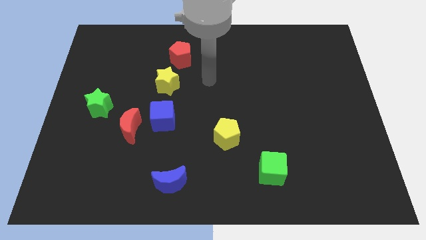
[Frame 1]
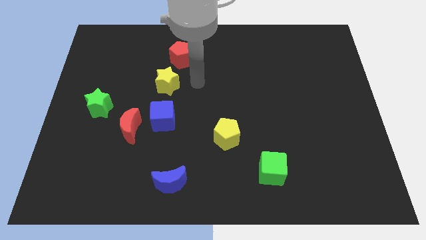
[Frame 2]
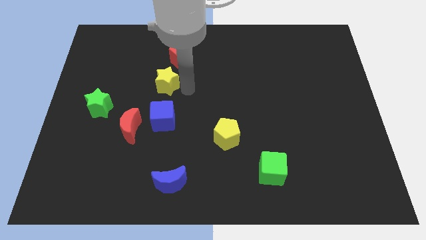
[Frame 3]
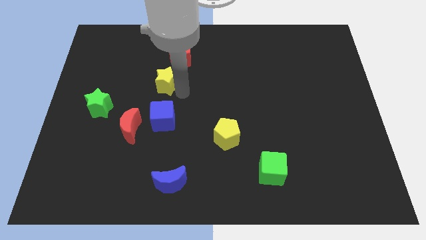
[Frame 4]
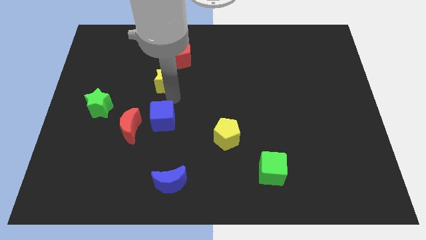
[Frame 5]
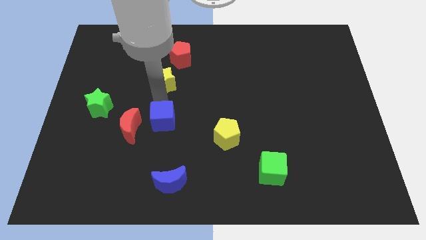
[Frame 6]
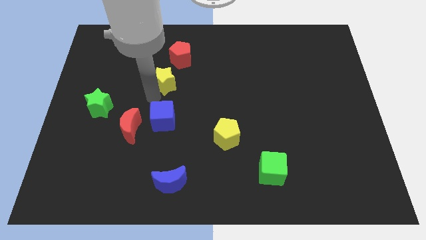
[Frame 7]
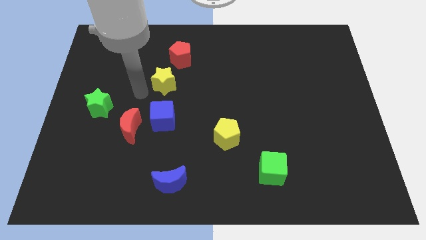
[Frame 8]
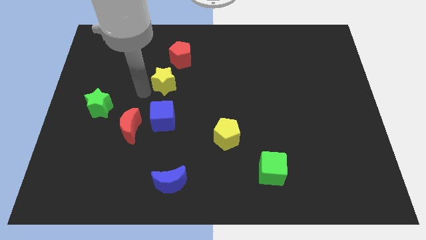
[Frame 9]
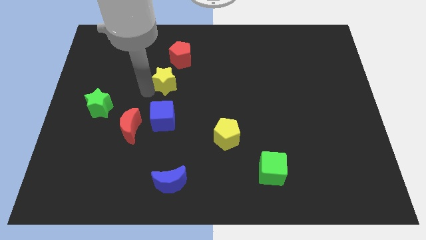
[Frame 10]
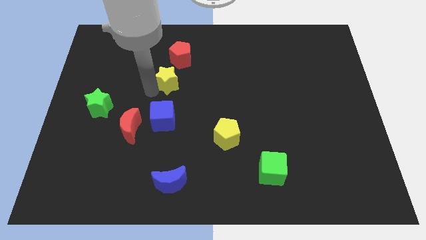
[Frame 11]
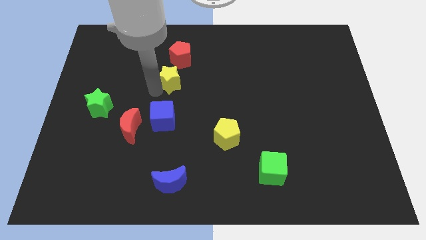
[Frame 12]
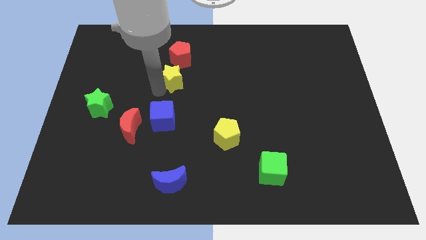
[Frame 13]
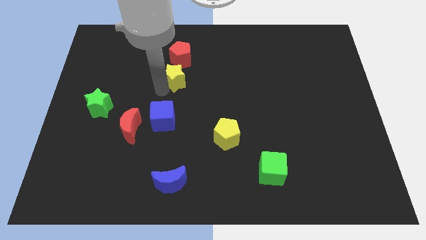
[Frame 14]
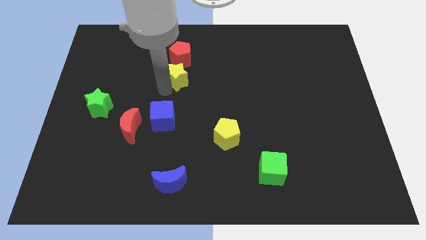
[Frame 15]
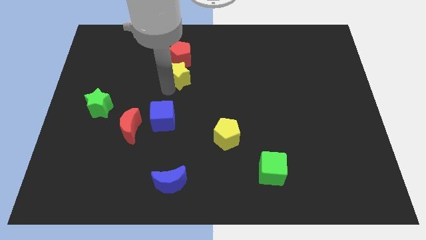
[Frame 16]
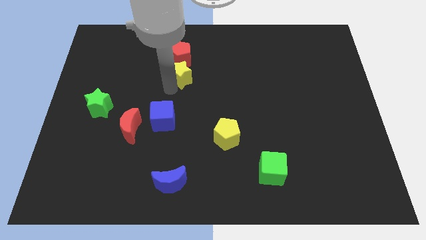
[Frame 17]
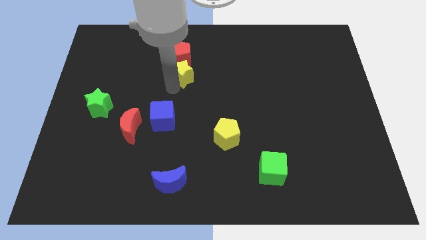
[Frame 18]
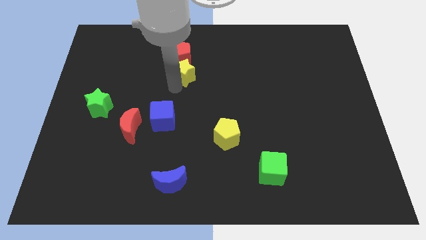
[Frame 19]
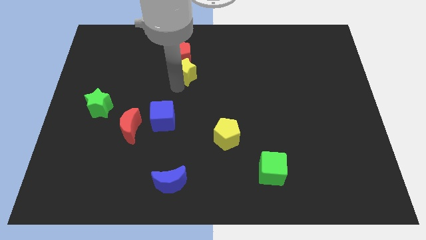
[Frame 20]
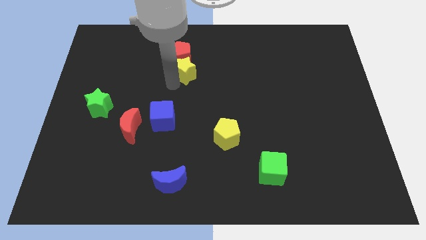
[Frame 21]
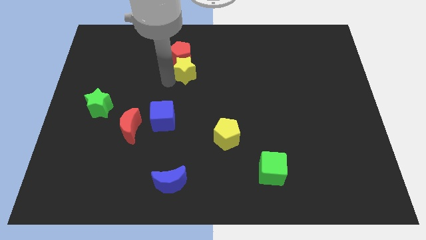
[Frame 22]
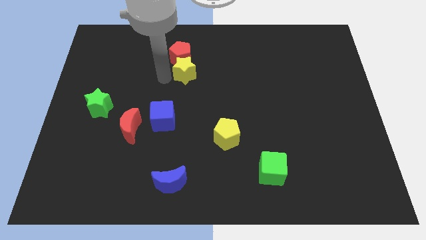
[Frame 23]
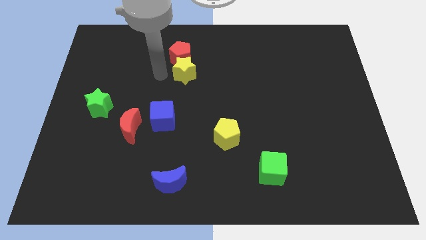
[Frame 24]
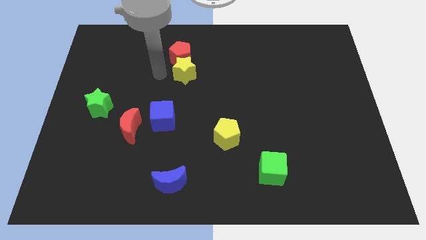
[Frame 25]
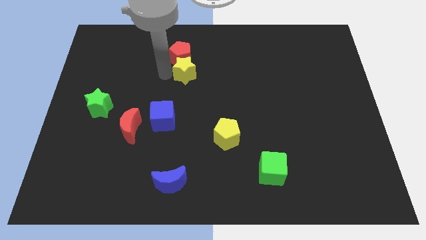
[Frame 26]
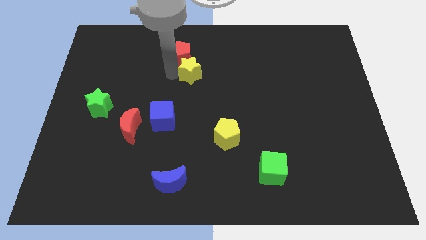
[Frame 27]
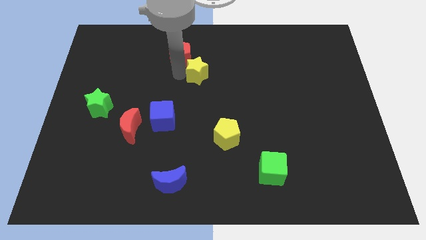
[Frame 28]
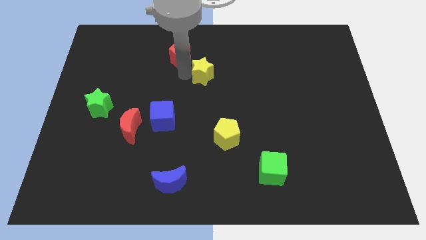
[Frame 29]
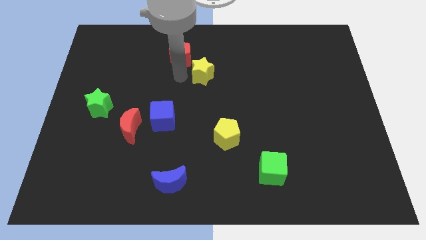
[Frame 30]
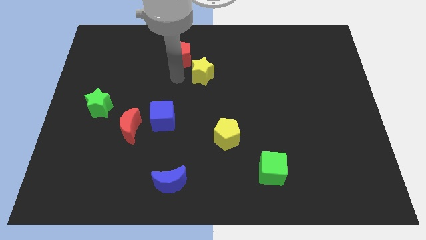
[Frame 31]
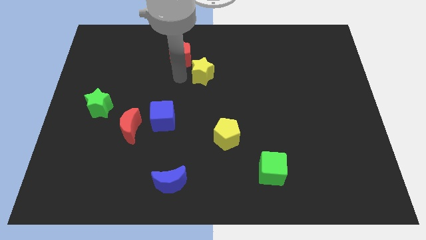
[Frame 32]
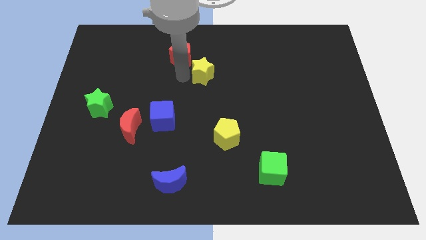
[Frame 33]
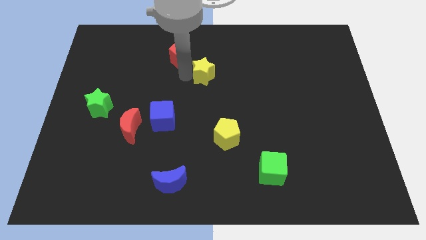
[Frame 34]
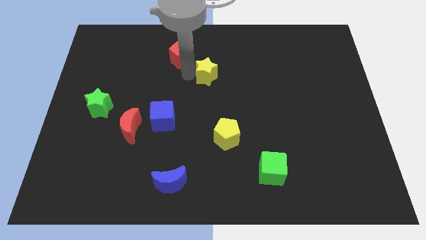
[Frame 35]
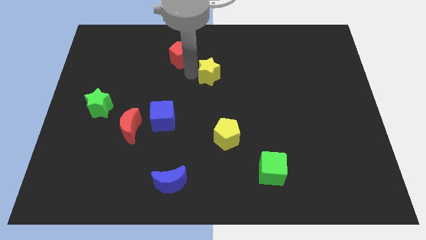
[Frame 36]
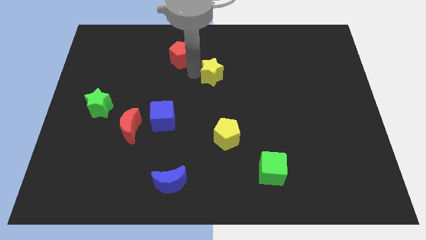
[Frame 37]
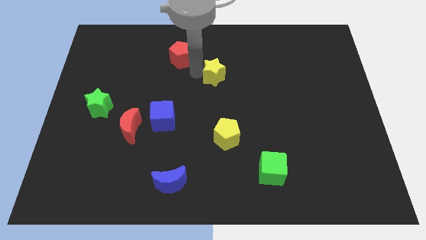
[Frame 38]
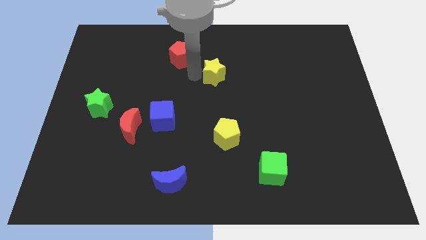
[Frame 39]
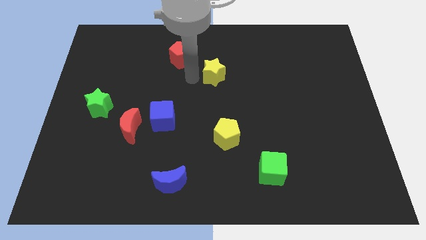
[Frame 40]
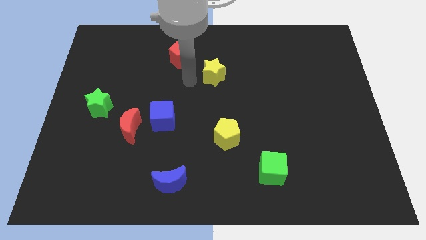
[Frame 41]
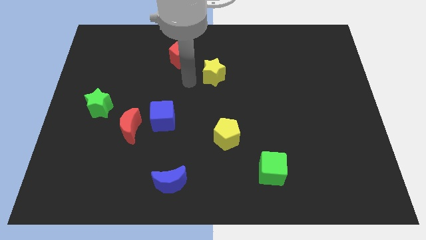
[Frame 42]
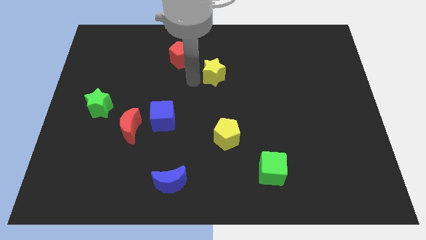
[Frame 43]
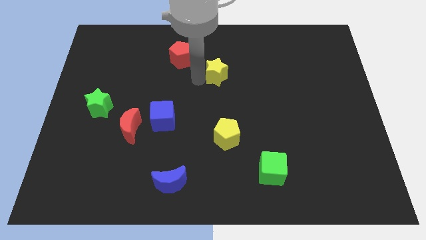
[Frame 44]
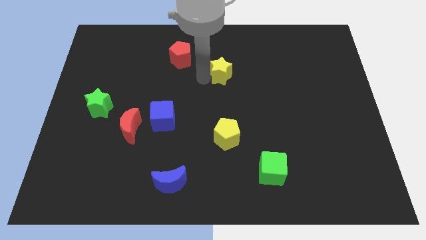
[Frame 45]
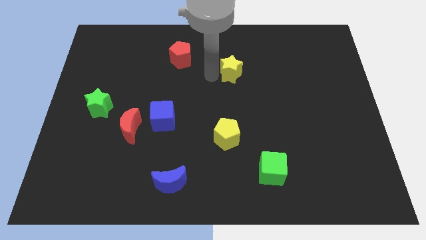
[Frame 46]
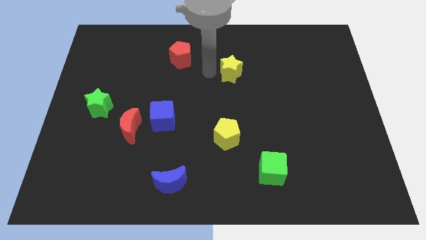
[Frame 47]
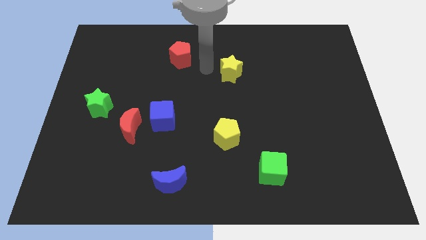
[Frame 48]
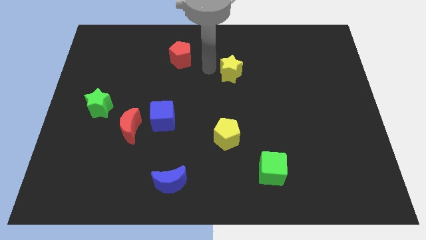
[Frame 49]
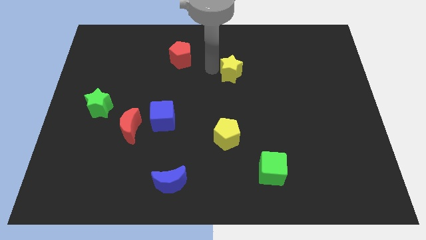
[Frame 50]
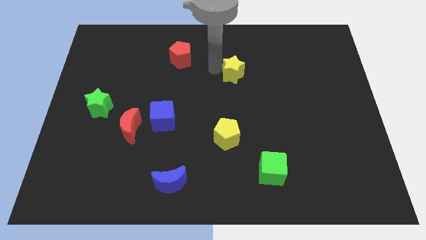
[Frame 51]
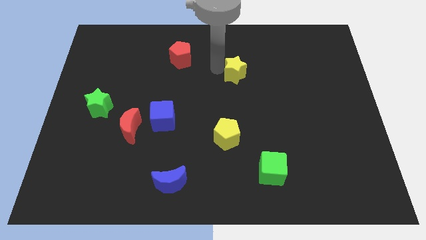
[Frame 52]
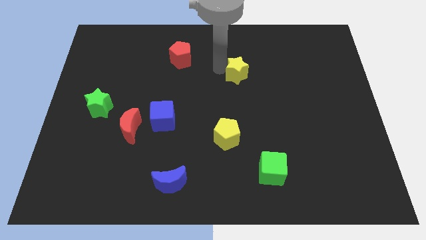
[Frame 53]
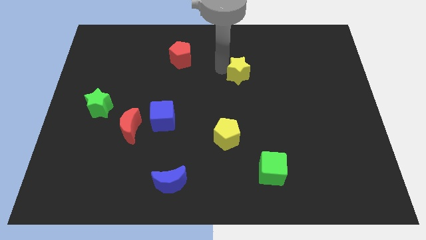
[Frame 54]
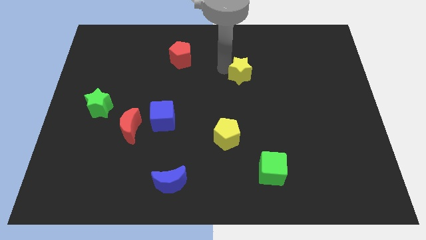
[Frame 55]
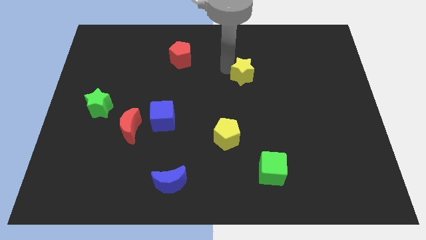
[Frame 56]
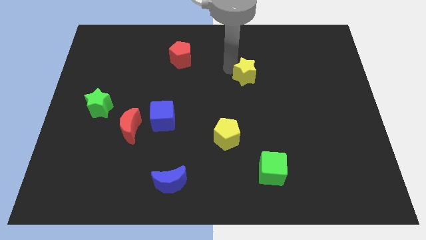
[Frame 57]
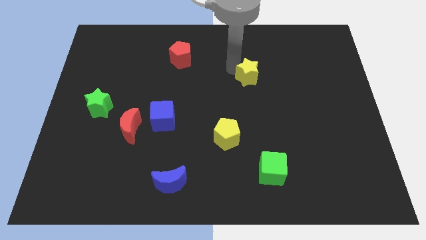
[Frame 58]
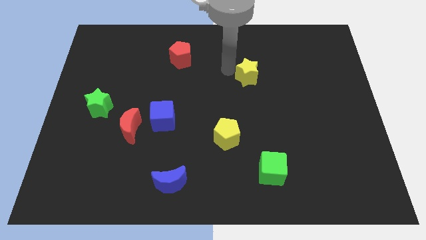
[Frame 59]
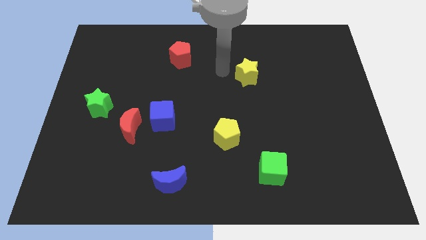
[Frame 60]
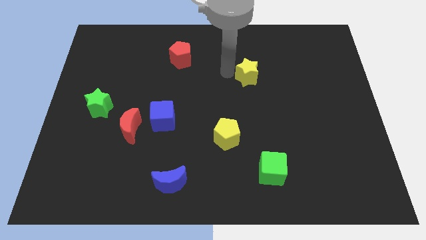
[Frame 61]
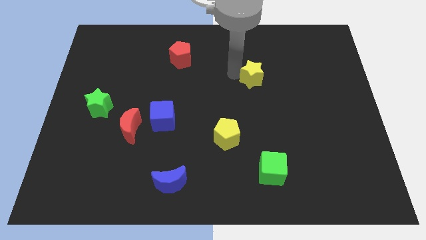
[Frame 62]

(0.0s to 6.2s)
move the yellow star right

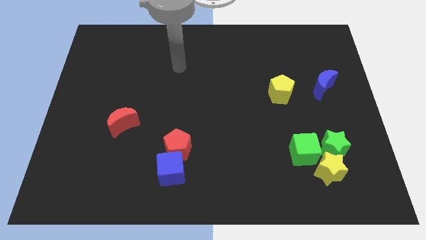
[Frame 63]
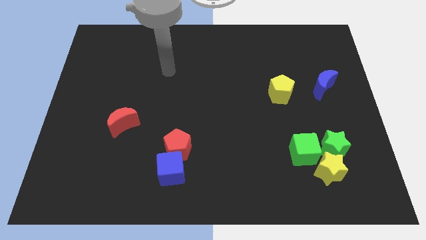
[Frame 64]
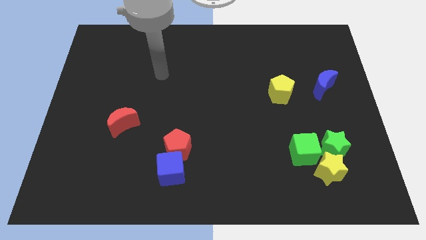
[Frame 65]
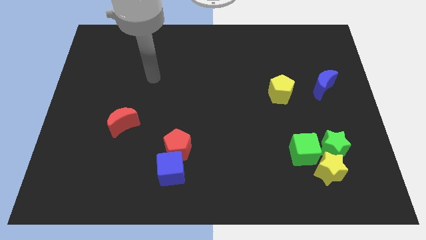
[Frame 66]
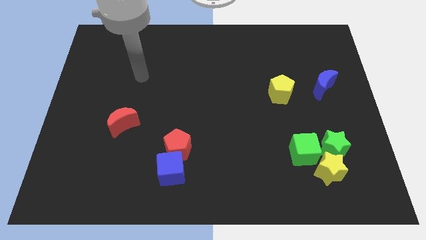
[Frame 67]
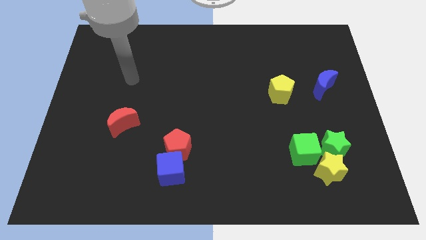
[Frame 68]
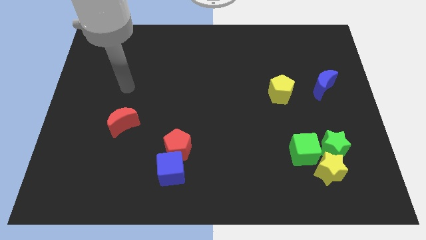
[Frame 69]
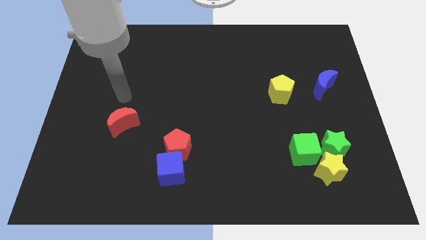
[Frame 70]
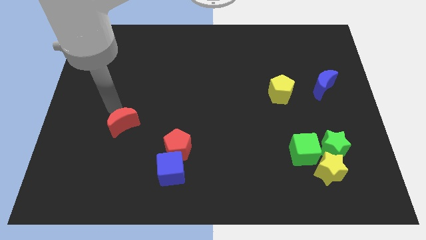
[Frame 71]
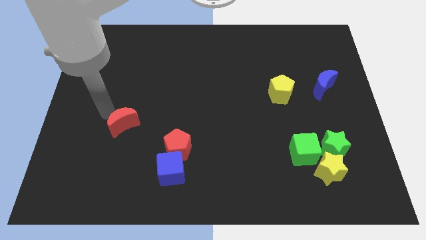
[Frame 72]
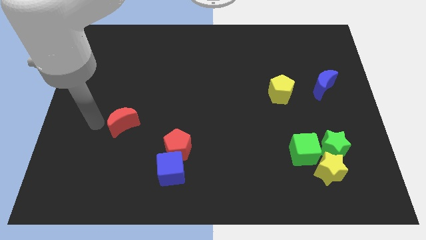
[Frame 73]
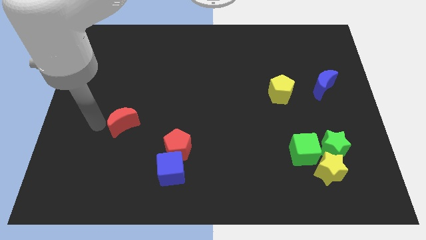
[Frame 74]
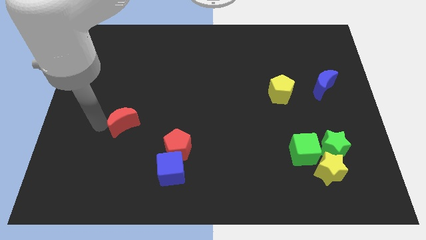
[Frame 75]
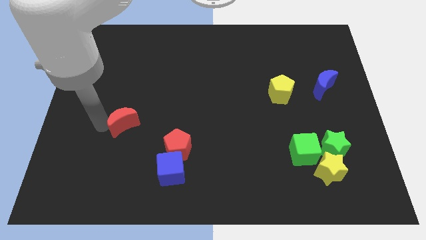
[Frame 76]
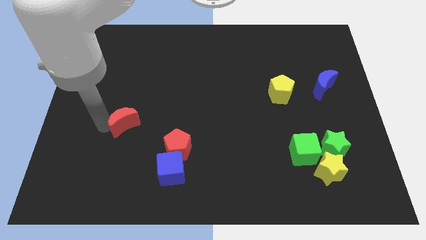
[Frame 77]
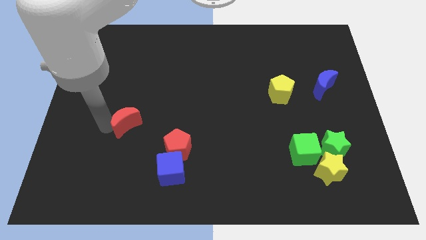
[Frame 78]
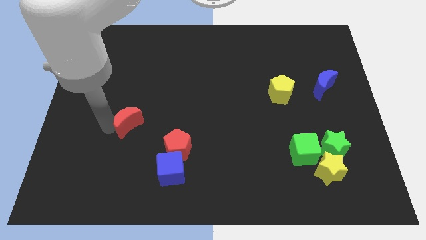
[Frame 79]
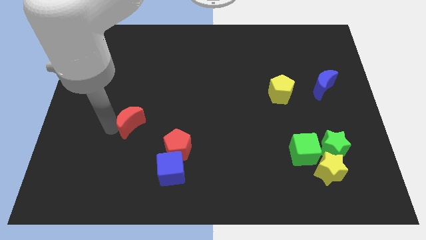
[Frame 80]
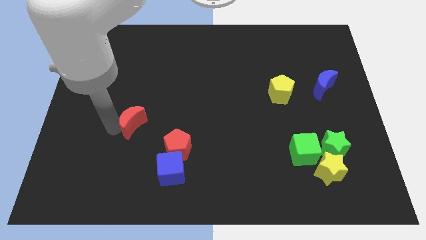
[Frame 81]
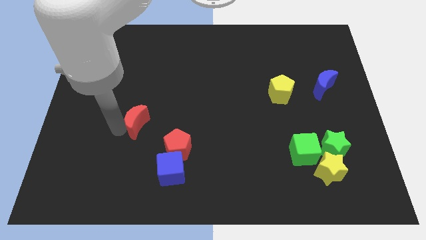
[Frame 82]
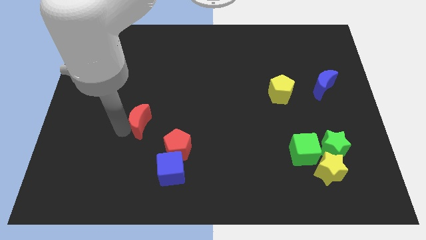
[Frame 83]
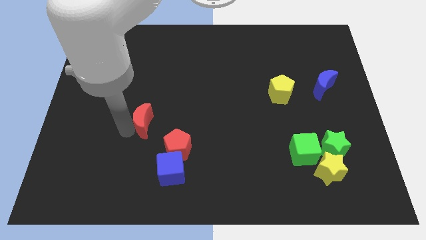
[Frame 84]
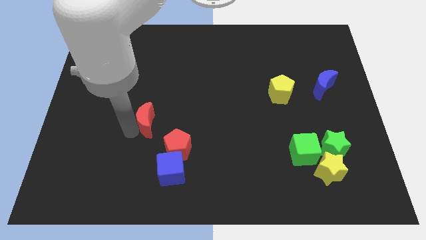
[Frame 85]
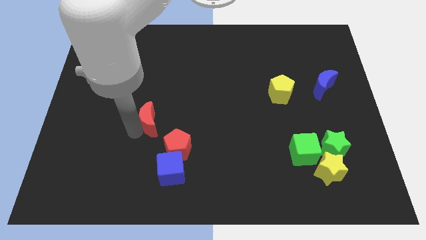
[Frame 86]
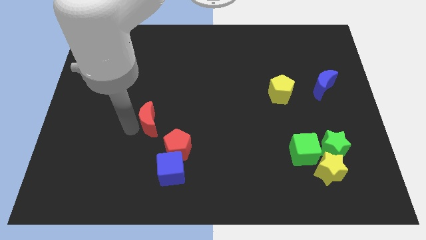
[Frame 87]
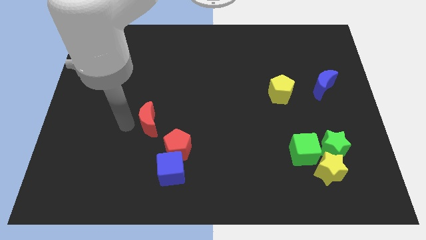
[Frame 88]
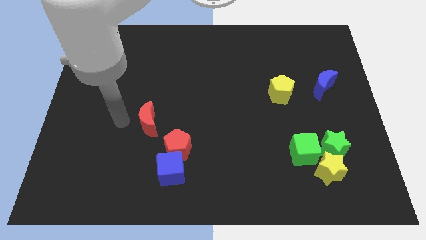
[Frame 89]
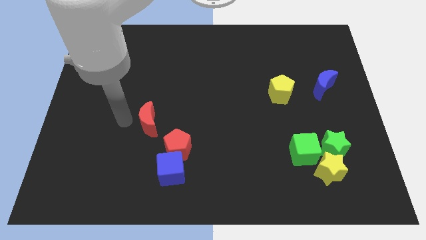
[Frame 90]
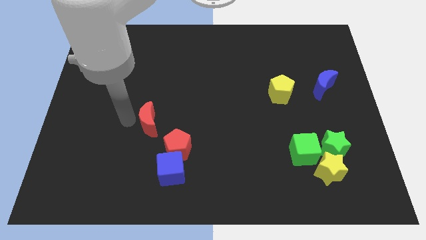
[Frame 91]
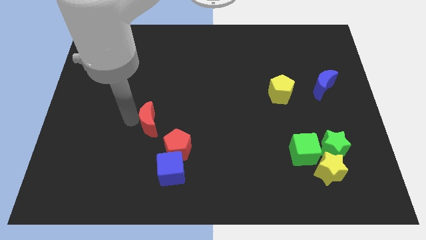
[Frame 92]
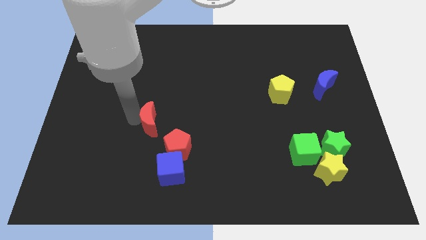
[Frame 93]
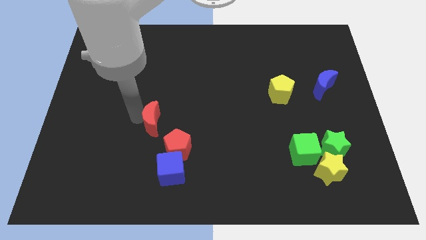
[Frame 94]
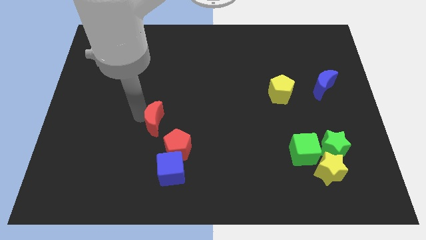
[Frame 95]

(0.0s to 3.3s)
move the red moon a bit to the right
